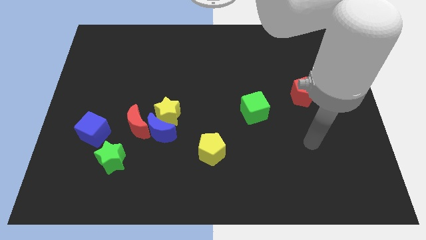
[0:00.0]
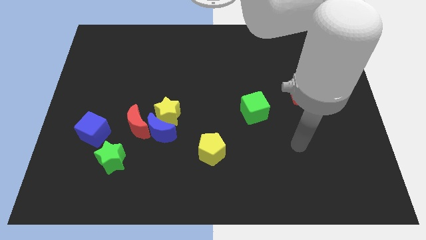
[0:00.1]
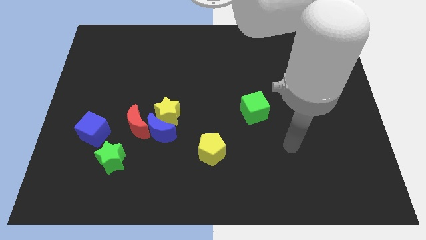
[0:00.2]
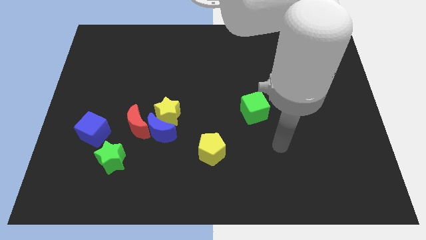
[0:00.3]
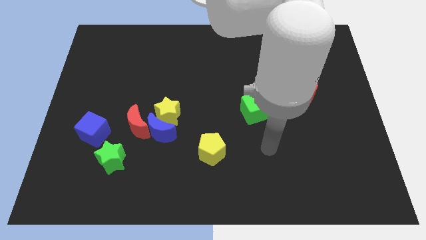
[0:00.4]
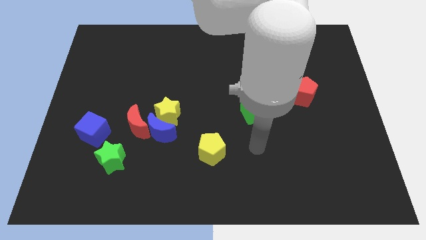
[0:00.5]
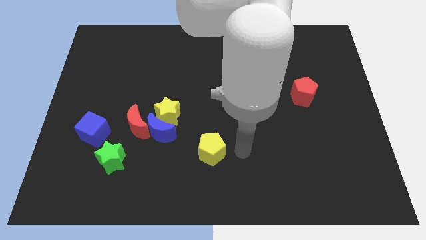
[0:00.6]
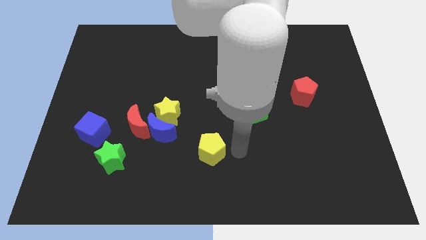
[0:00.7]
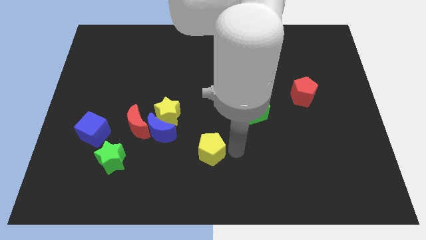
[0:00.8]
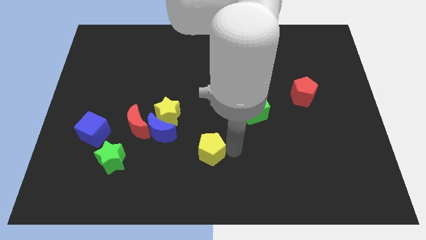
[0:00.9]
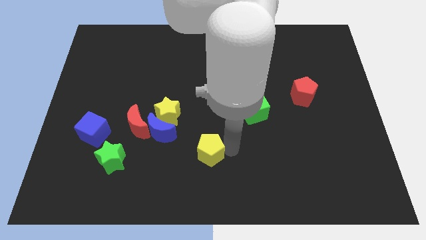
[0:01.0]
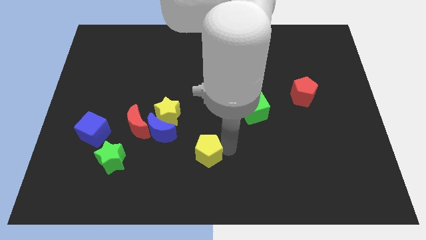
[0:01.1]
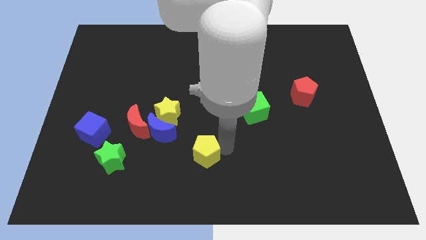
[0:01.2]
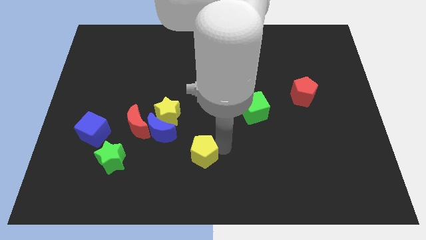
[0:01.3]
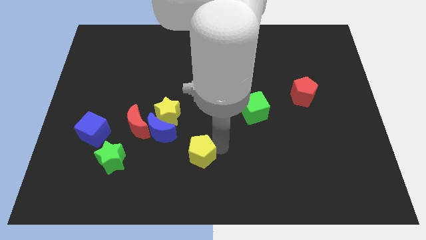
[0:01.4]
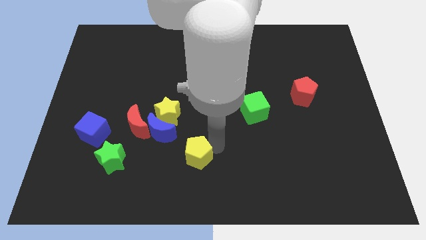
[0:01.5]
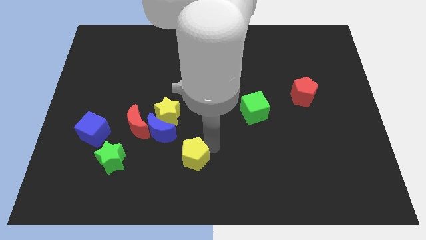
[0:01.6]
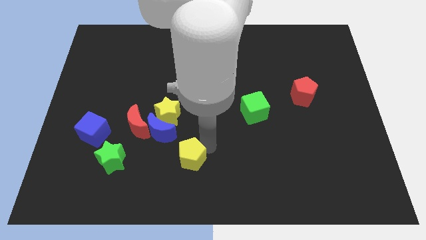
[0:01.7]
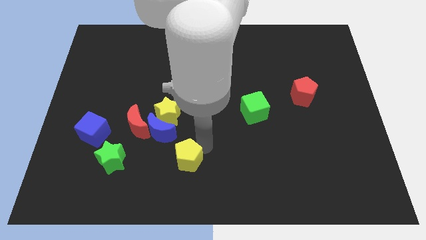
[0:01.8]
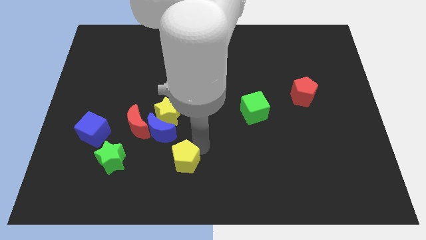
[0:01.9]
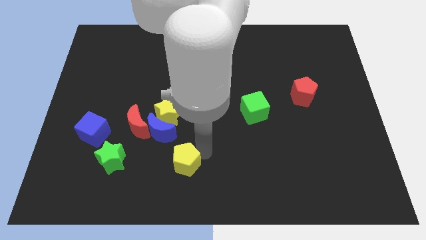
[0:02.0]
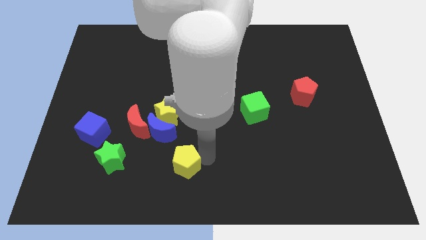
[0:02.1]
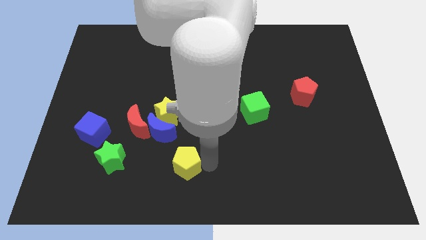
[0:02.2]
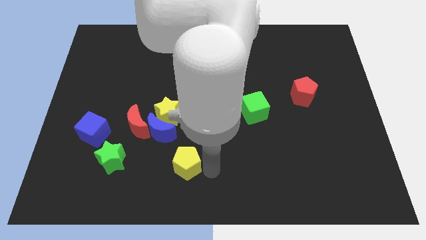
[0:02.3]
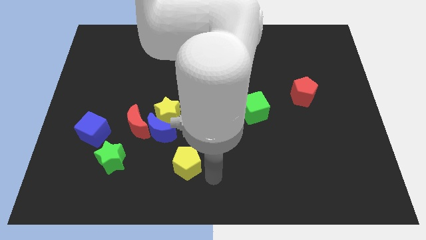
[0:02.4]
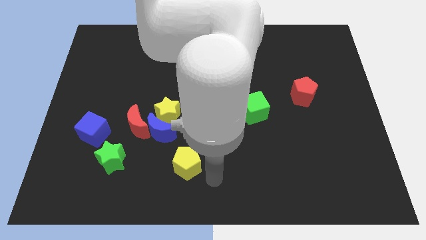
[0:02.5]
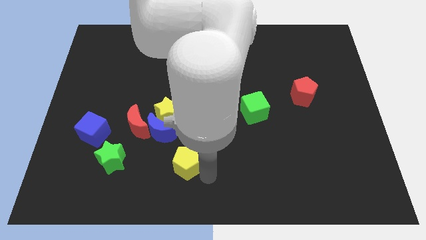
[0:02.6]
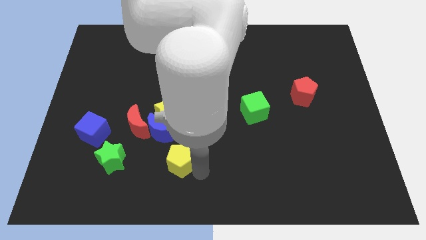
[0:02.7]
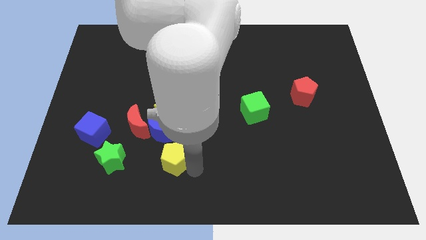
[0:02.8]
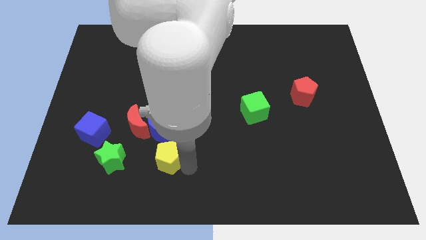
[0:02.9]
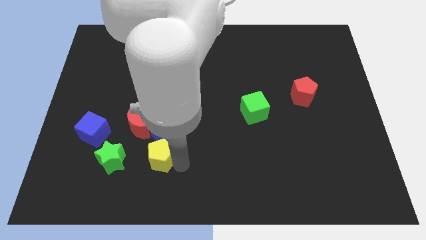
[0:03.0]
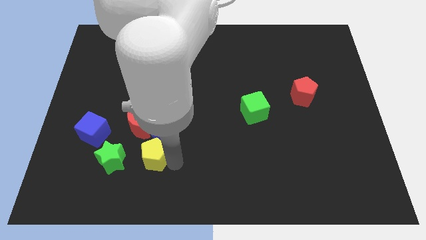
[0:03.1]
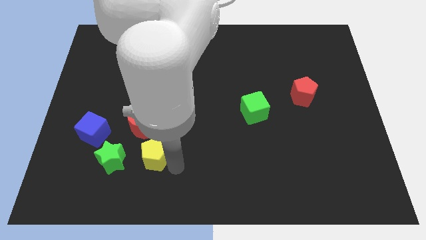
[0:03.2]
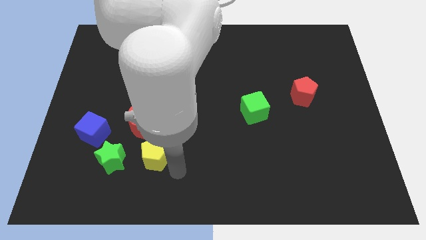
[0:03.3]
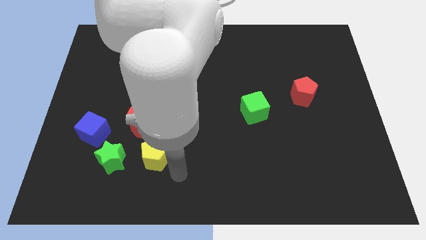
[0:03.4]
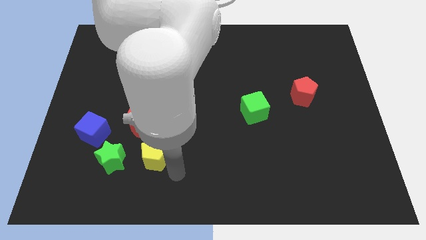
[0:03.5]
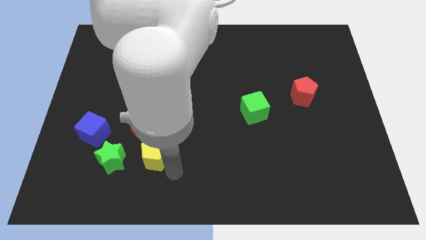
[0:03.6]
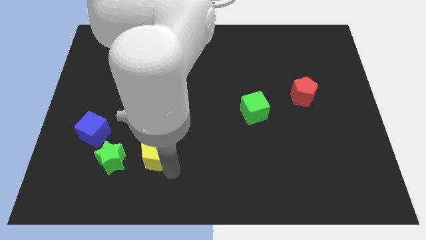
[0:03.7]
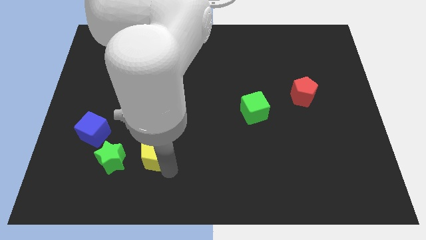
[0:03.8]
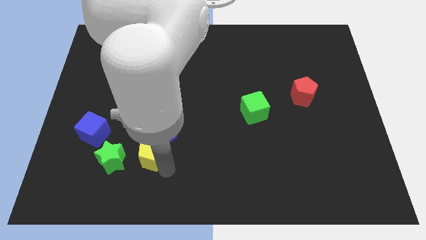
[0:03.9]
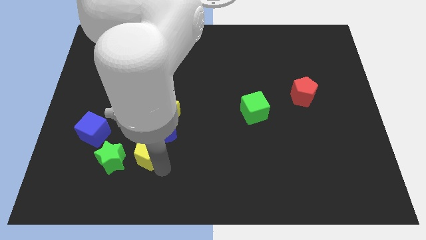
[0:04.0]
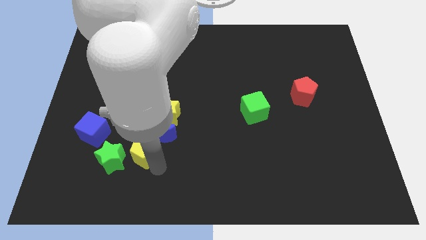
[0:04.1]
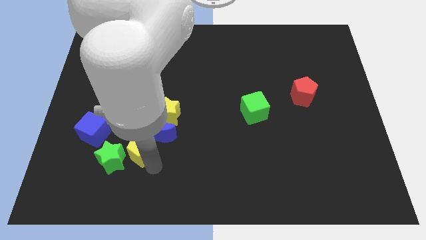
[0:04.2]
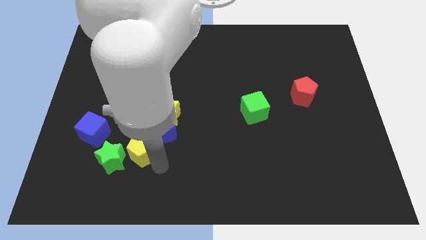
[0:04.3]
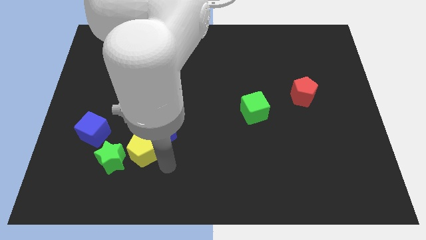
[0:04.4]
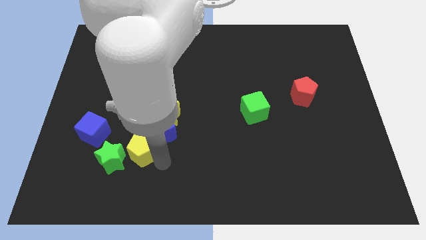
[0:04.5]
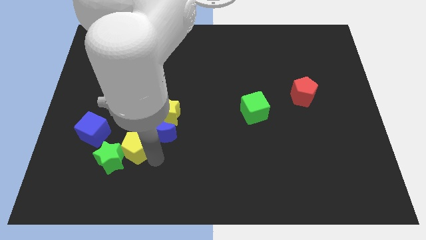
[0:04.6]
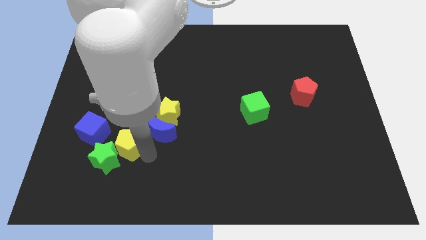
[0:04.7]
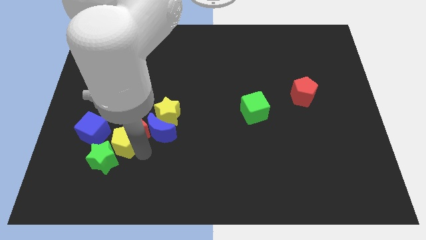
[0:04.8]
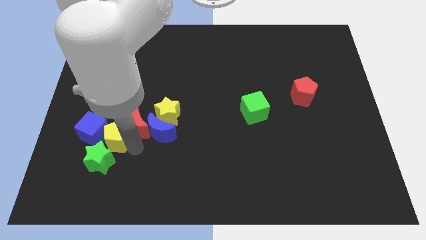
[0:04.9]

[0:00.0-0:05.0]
slide the yellow pentagon to the blue cube

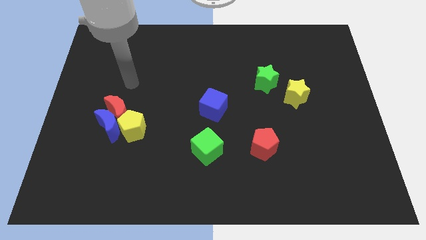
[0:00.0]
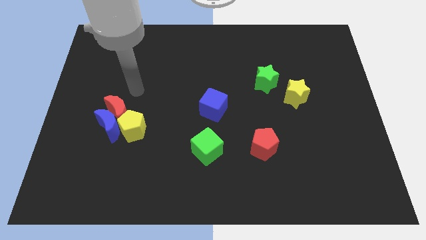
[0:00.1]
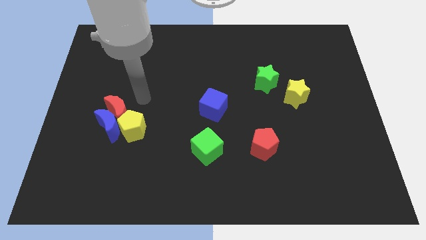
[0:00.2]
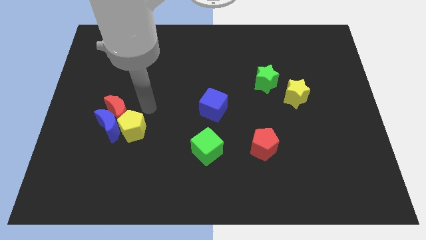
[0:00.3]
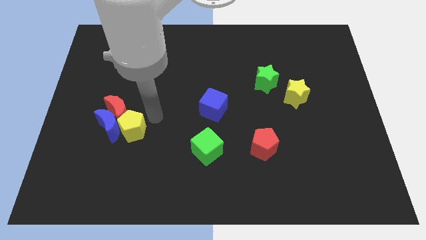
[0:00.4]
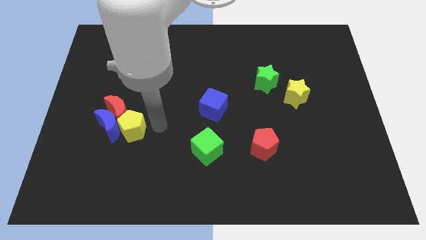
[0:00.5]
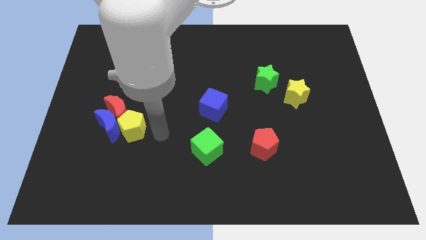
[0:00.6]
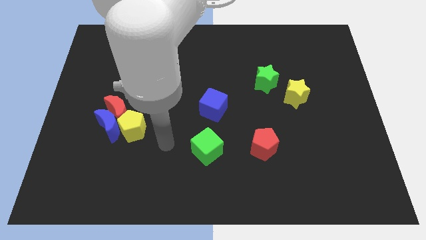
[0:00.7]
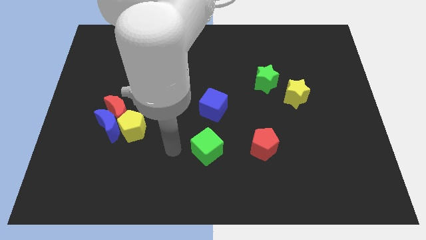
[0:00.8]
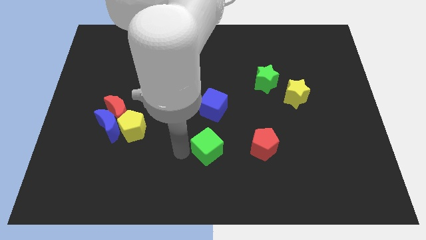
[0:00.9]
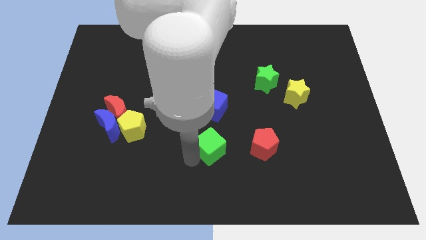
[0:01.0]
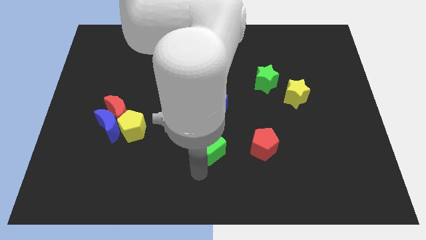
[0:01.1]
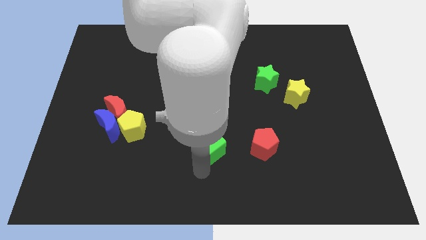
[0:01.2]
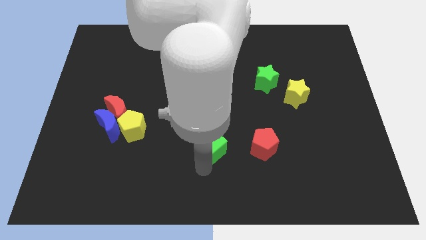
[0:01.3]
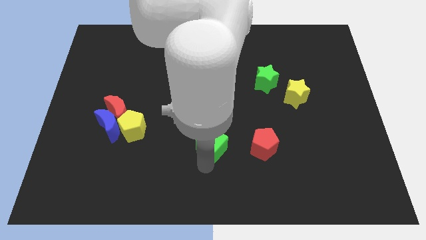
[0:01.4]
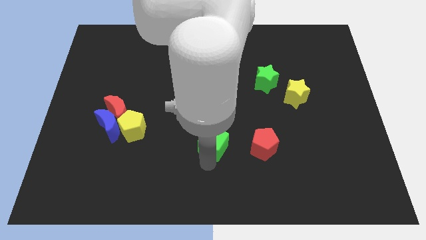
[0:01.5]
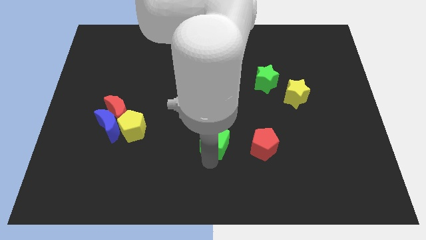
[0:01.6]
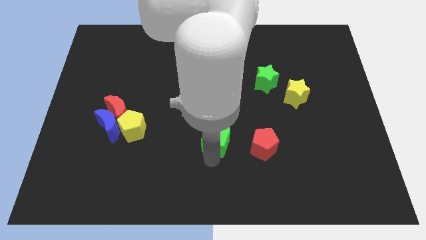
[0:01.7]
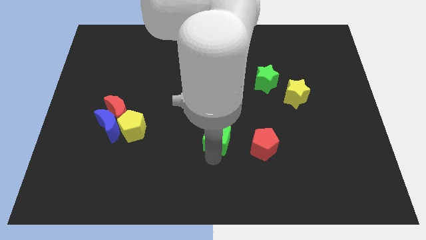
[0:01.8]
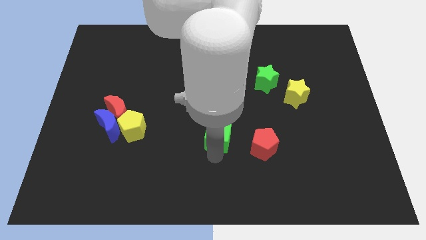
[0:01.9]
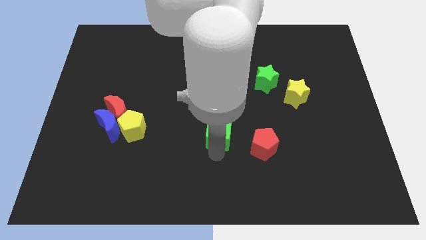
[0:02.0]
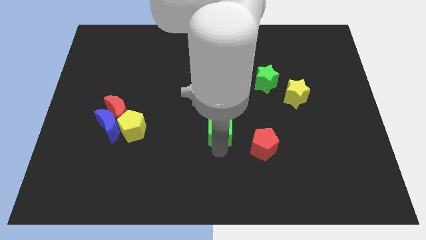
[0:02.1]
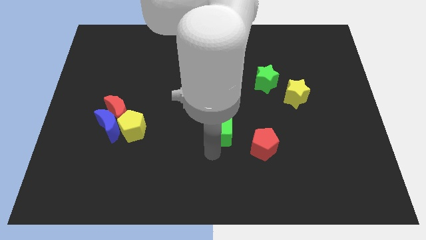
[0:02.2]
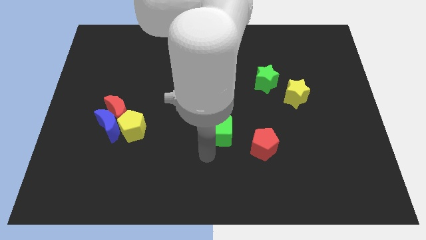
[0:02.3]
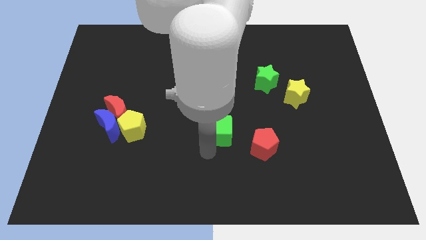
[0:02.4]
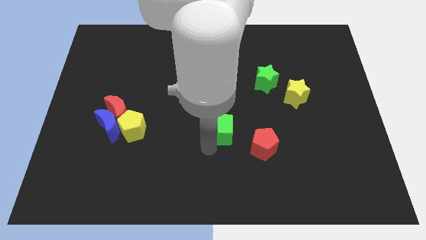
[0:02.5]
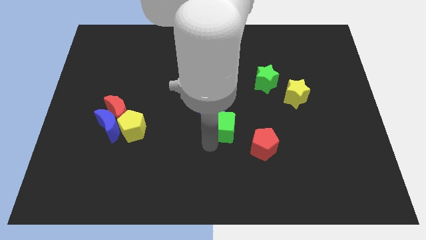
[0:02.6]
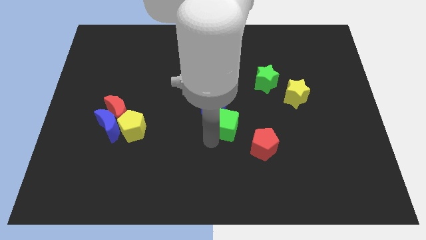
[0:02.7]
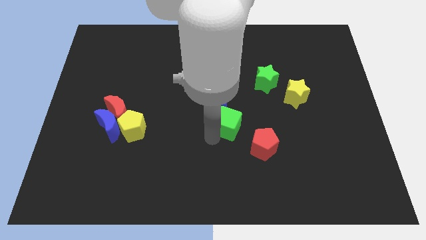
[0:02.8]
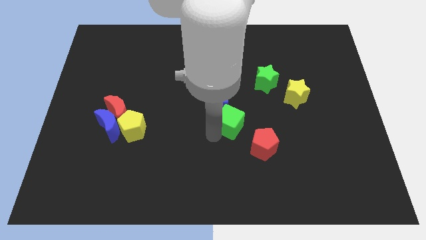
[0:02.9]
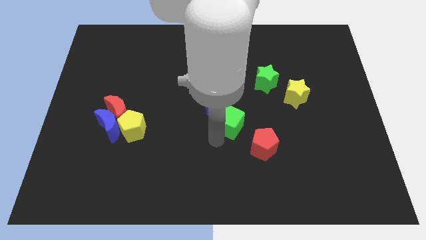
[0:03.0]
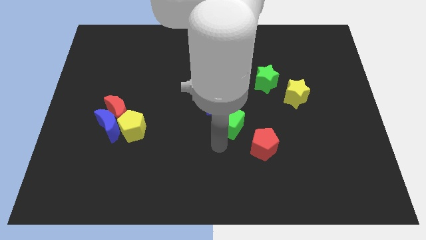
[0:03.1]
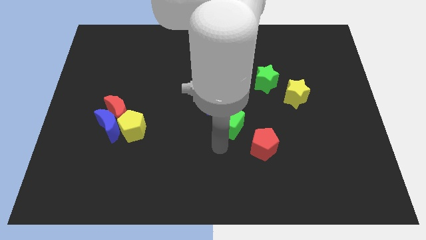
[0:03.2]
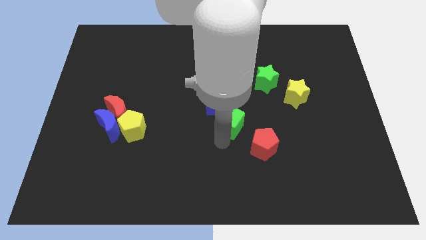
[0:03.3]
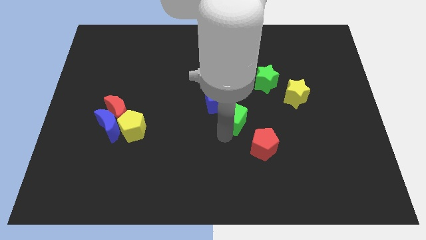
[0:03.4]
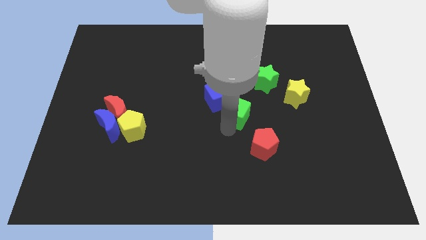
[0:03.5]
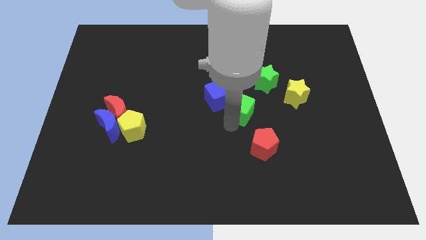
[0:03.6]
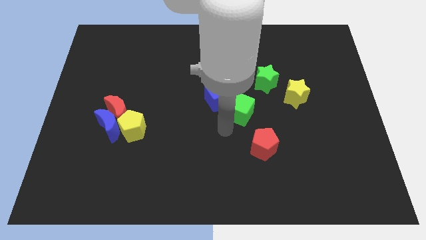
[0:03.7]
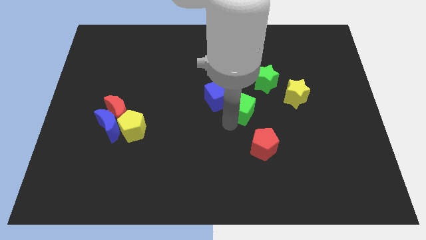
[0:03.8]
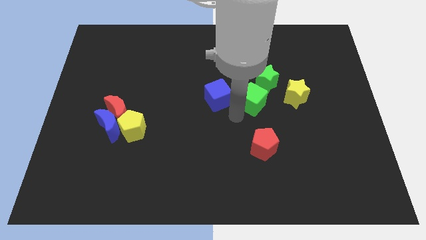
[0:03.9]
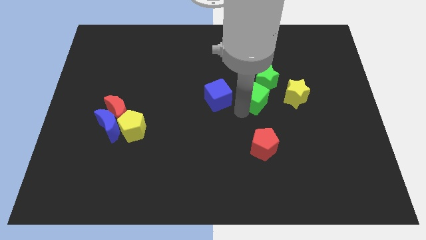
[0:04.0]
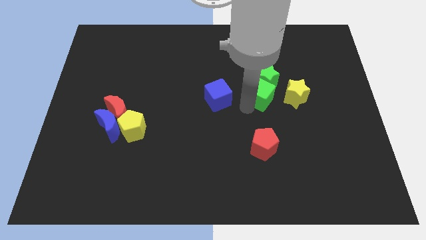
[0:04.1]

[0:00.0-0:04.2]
push the green cube close to the green star
